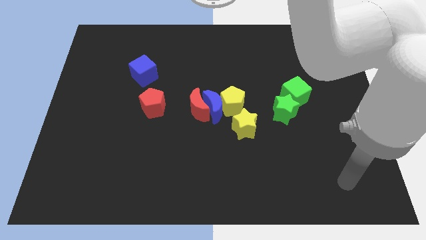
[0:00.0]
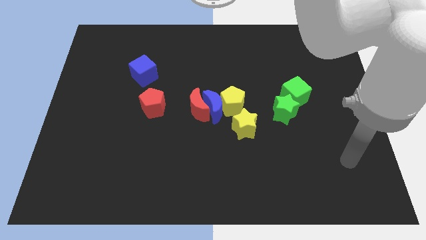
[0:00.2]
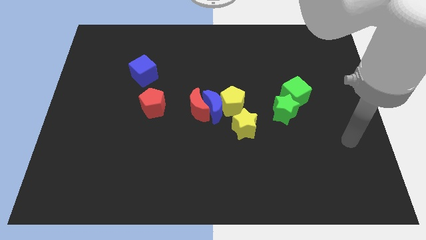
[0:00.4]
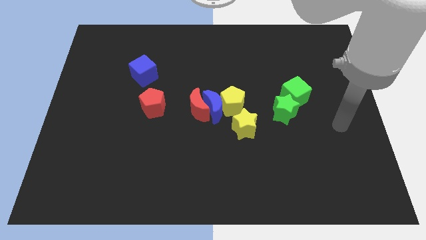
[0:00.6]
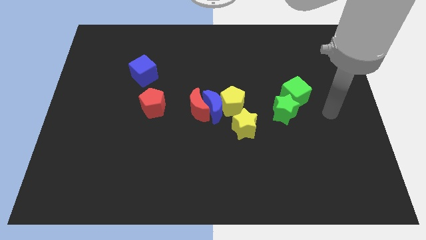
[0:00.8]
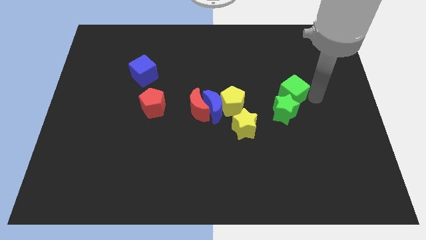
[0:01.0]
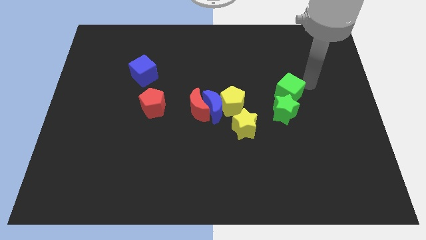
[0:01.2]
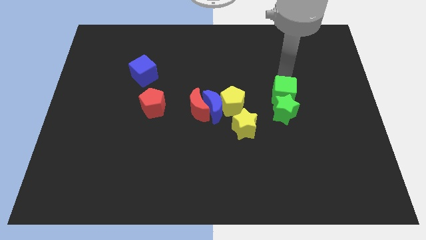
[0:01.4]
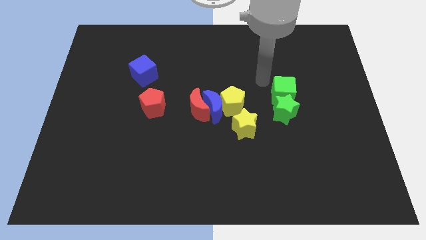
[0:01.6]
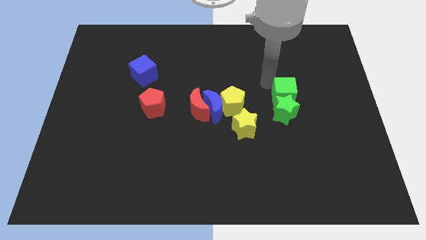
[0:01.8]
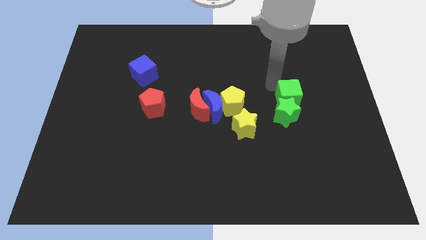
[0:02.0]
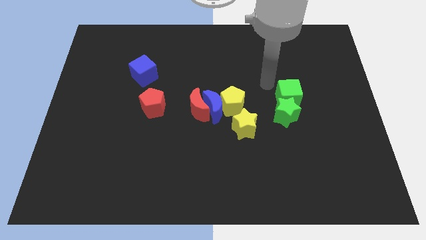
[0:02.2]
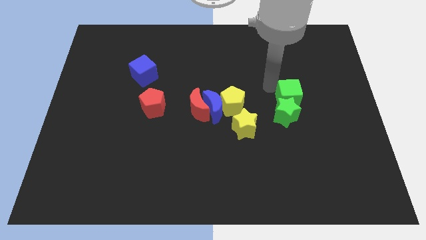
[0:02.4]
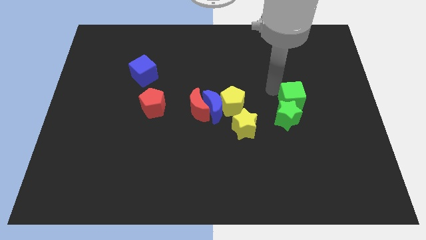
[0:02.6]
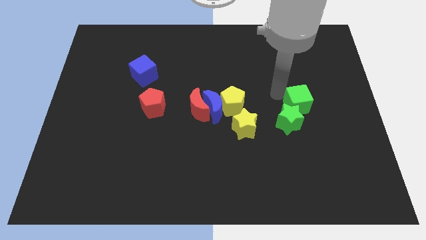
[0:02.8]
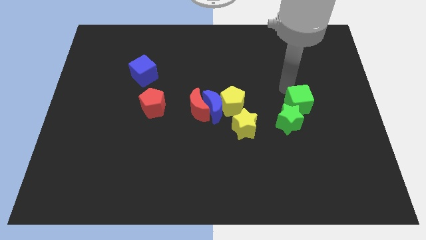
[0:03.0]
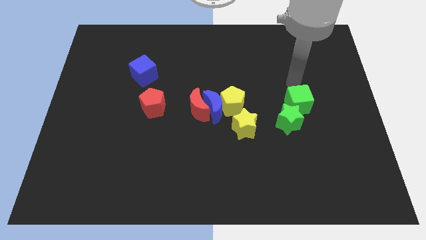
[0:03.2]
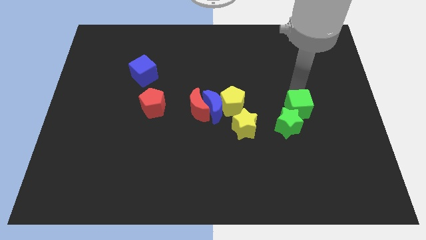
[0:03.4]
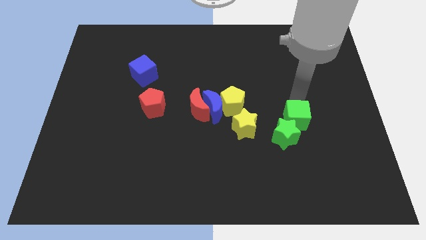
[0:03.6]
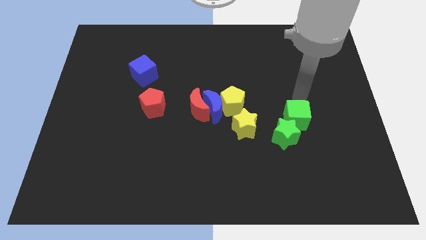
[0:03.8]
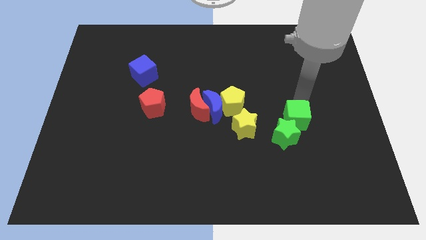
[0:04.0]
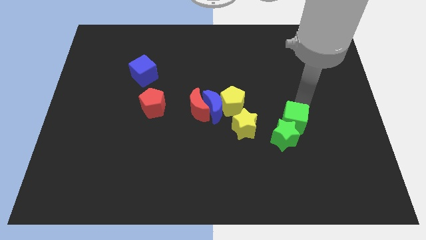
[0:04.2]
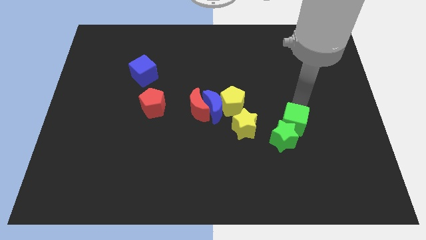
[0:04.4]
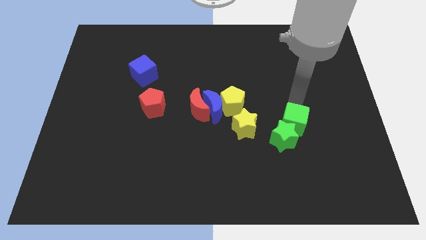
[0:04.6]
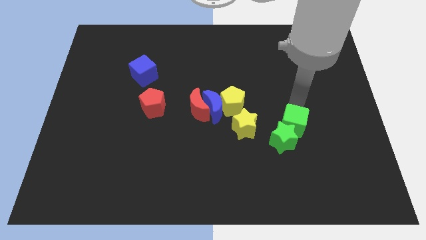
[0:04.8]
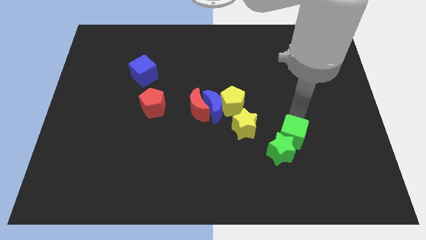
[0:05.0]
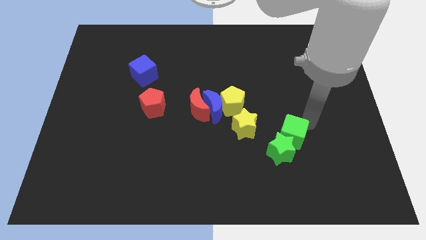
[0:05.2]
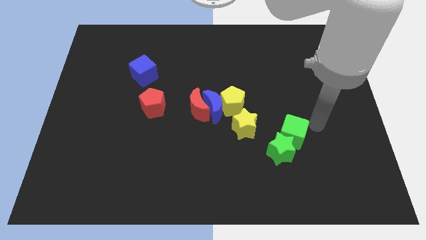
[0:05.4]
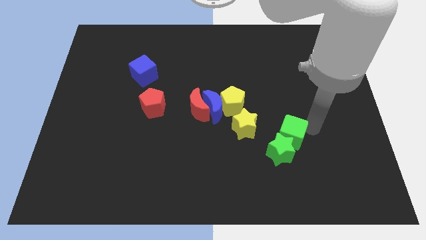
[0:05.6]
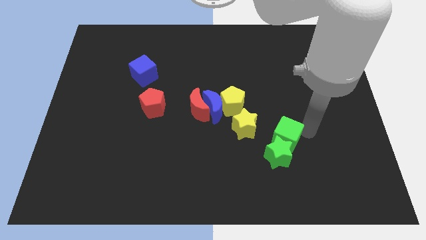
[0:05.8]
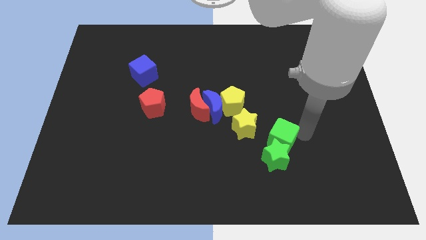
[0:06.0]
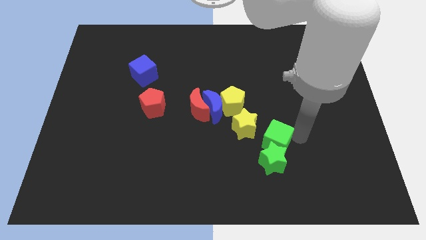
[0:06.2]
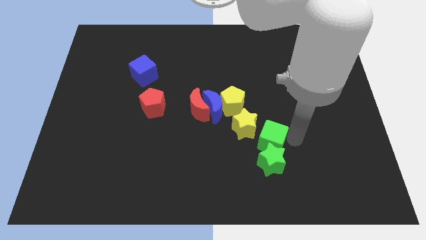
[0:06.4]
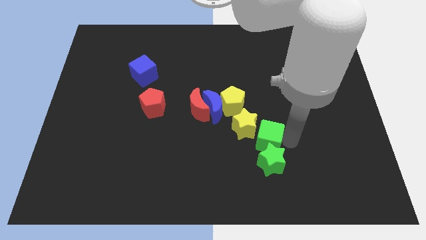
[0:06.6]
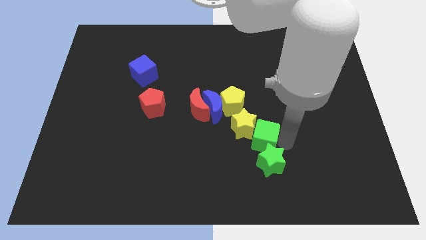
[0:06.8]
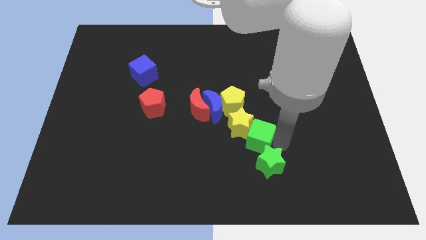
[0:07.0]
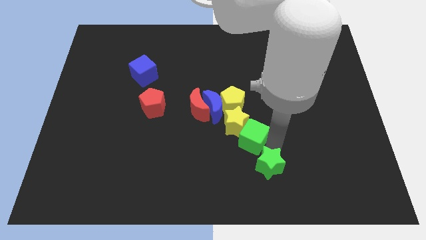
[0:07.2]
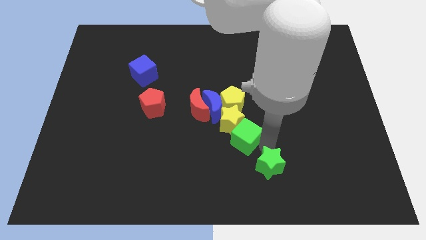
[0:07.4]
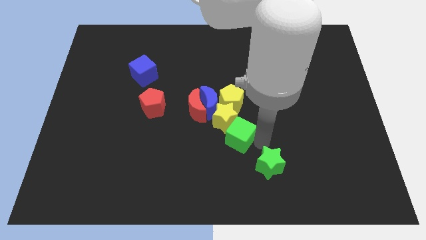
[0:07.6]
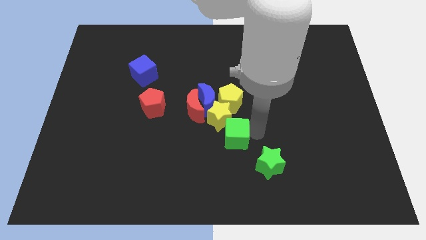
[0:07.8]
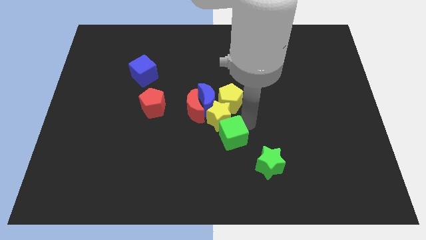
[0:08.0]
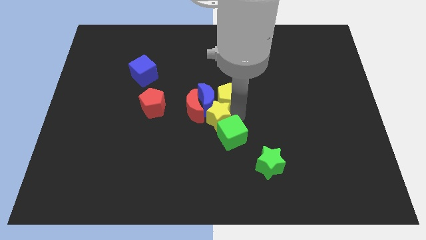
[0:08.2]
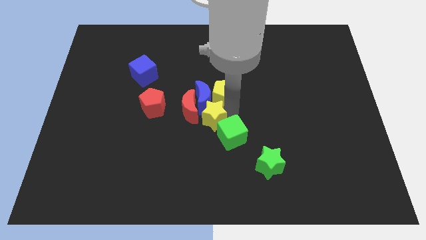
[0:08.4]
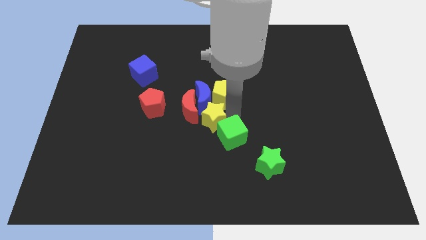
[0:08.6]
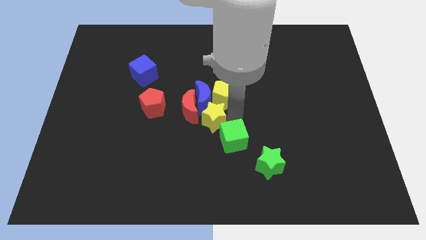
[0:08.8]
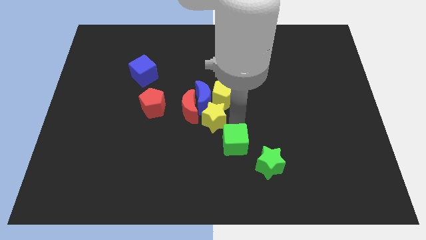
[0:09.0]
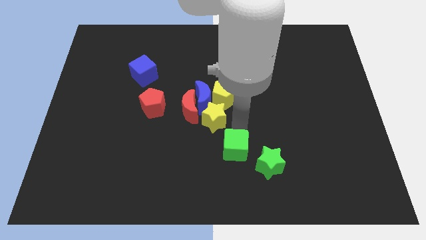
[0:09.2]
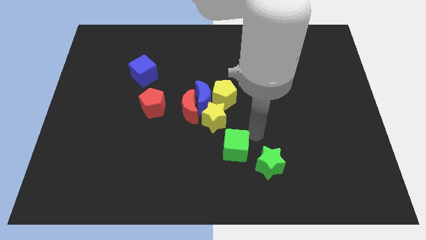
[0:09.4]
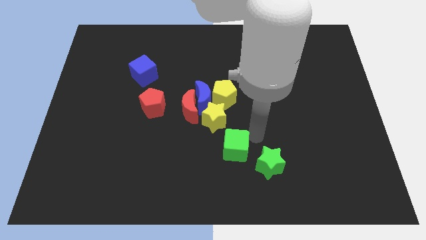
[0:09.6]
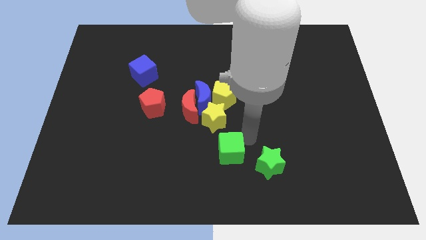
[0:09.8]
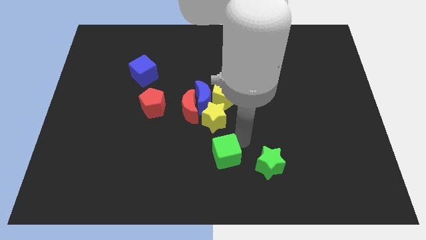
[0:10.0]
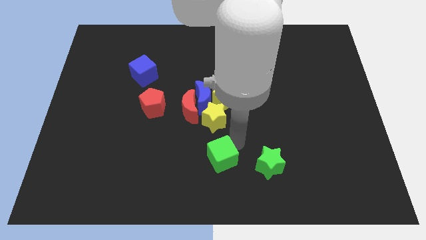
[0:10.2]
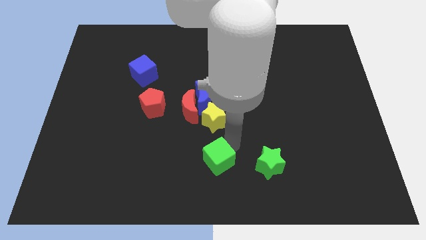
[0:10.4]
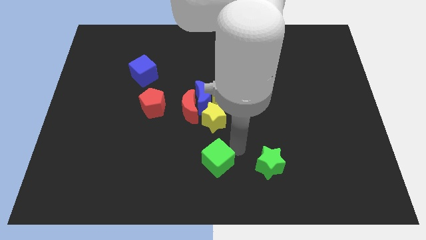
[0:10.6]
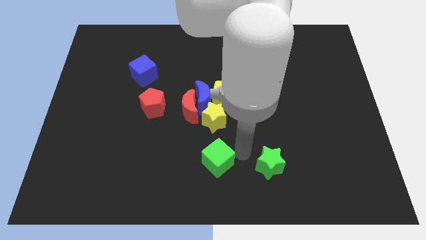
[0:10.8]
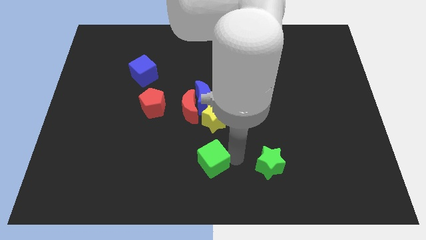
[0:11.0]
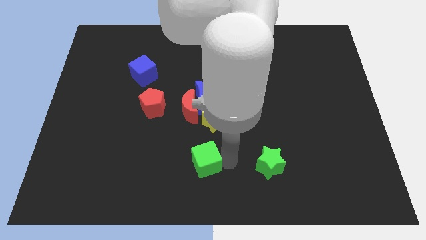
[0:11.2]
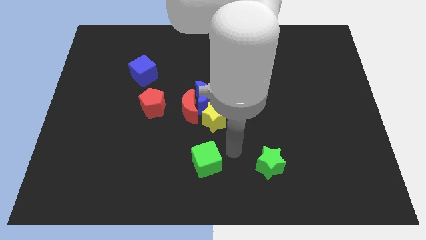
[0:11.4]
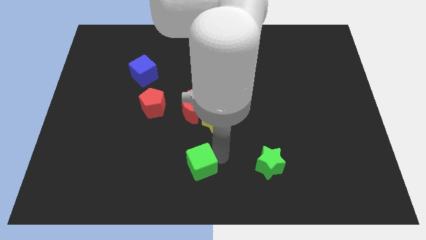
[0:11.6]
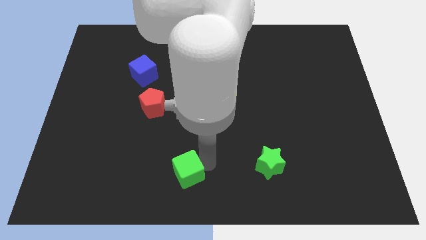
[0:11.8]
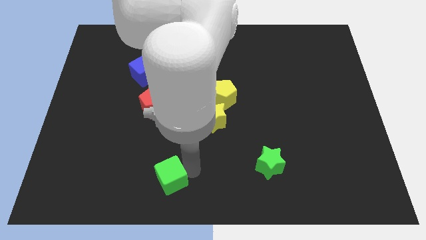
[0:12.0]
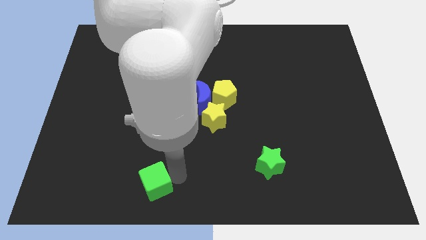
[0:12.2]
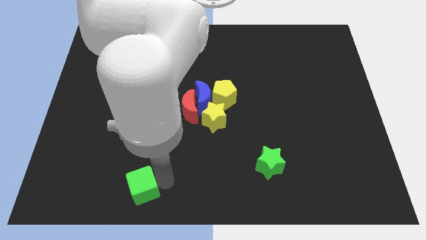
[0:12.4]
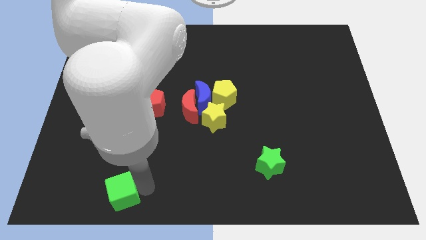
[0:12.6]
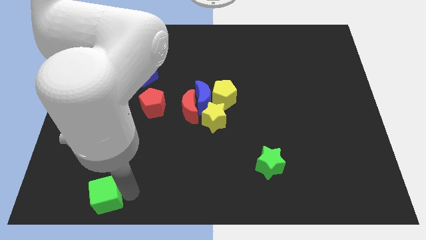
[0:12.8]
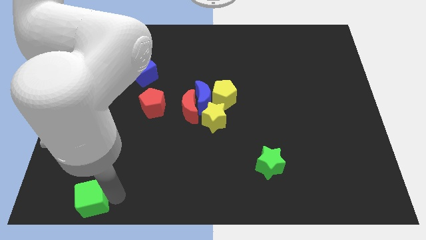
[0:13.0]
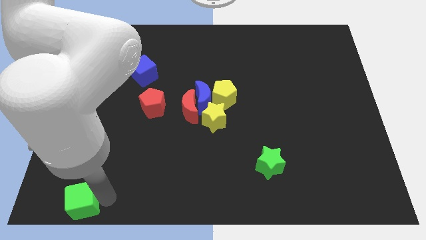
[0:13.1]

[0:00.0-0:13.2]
put the green cube to the lower left corner
